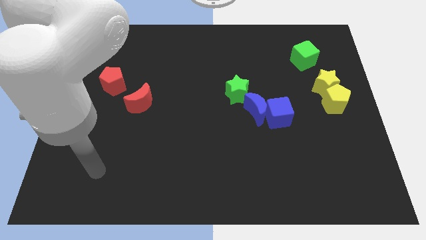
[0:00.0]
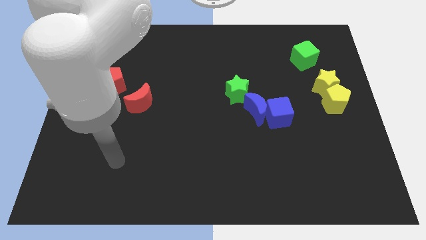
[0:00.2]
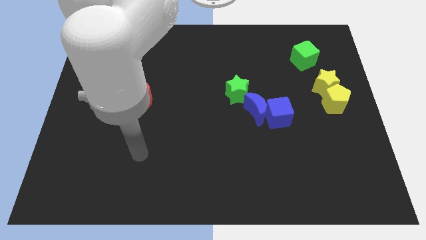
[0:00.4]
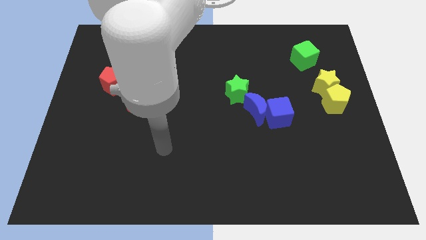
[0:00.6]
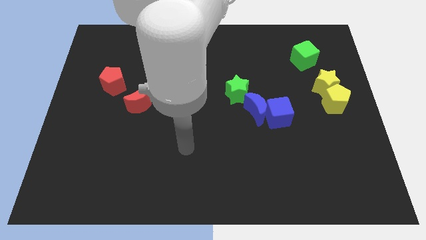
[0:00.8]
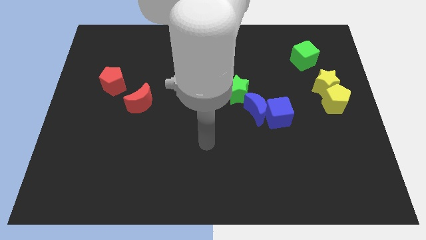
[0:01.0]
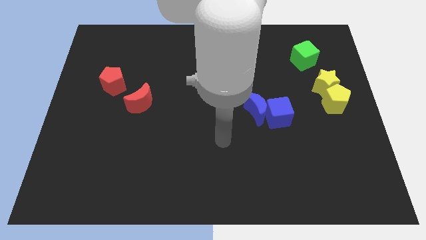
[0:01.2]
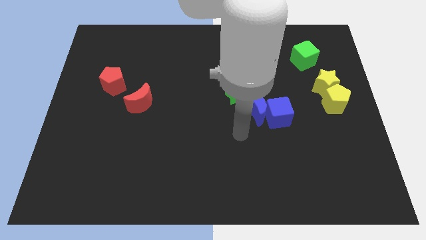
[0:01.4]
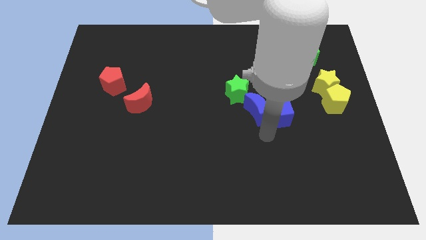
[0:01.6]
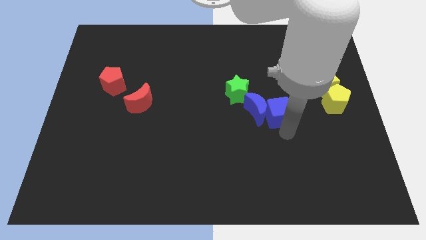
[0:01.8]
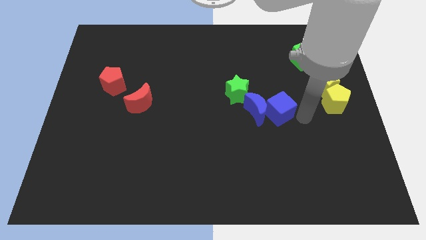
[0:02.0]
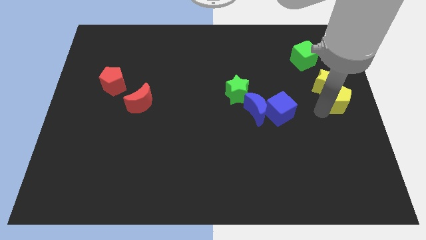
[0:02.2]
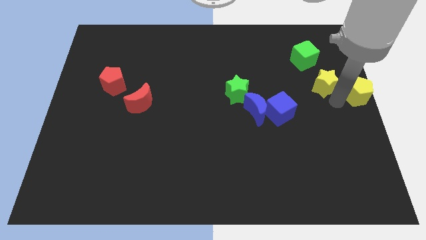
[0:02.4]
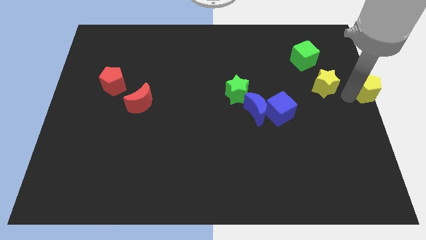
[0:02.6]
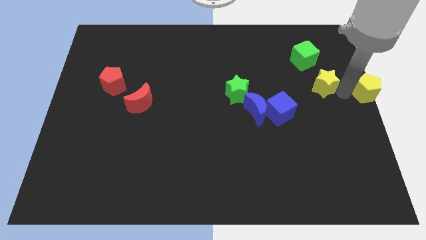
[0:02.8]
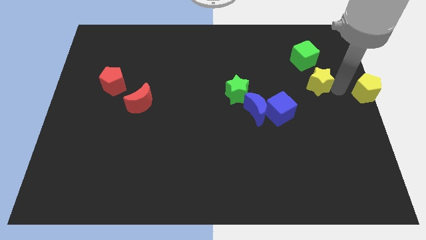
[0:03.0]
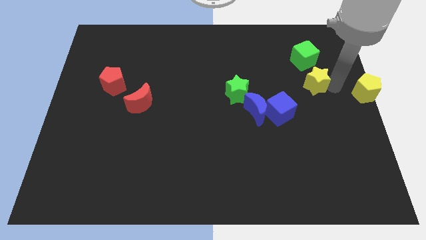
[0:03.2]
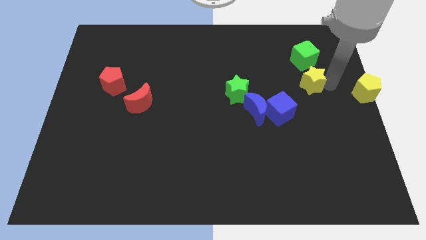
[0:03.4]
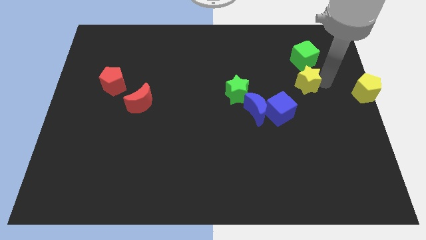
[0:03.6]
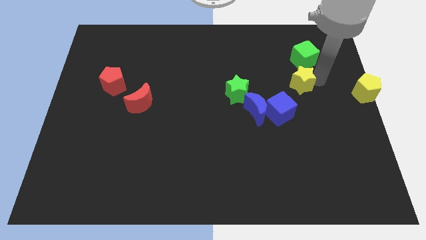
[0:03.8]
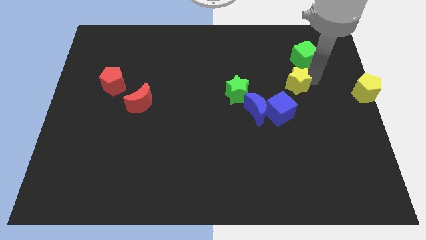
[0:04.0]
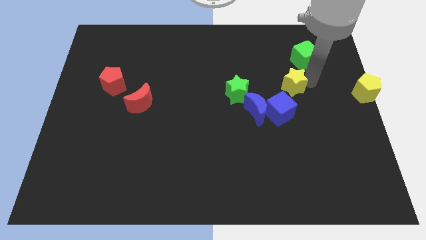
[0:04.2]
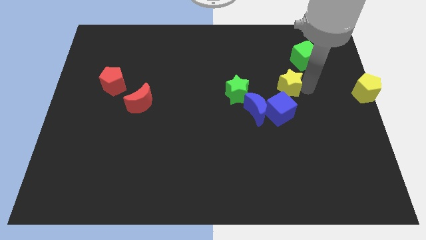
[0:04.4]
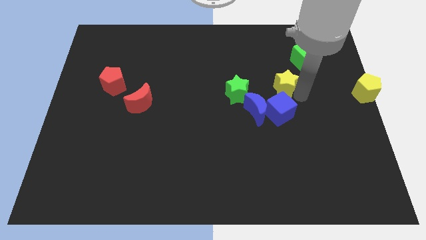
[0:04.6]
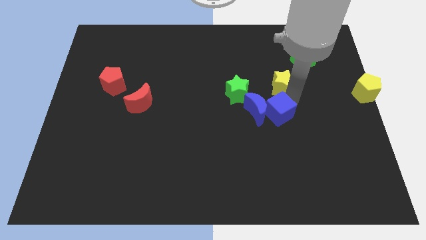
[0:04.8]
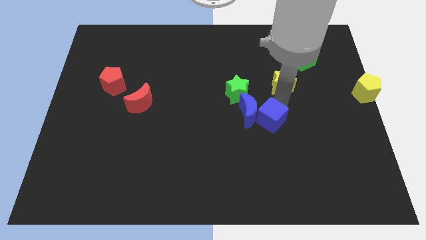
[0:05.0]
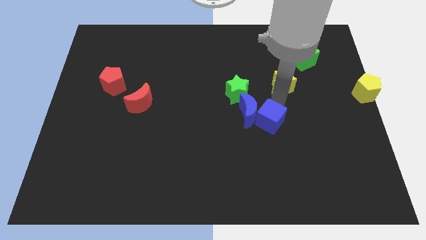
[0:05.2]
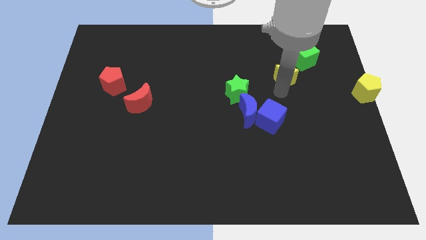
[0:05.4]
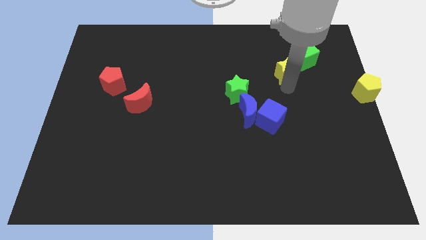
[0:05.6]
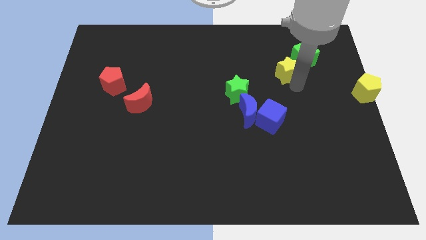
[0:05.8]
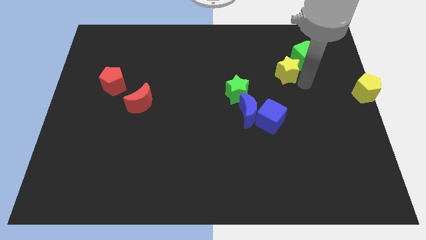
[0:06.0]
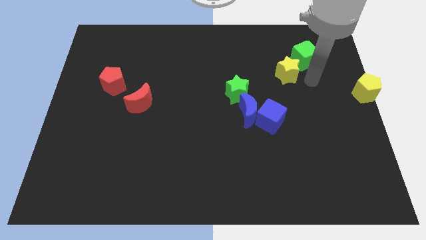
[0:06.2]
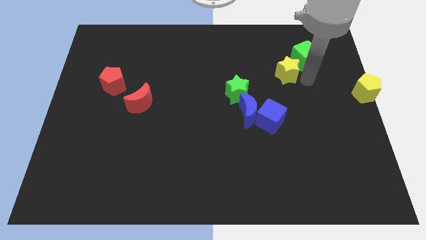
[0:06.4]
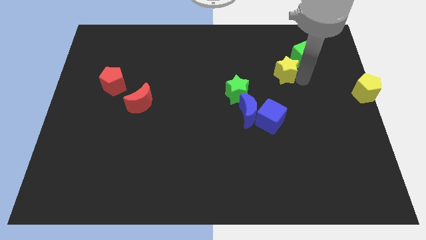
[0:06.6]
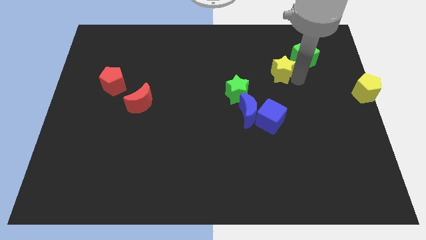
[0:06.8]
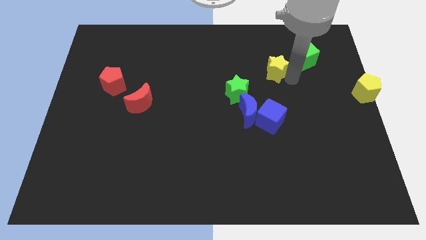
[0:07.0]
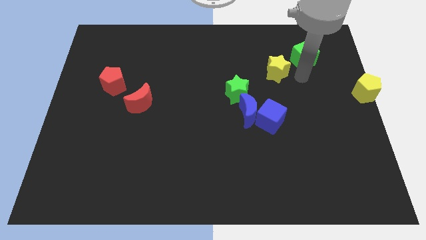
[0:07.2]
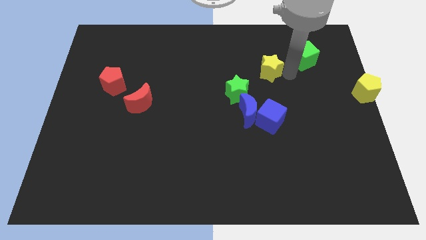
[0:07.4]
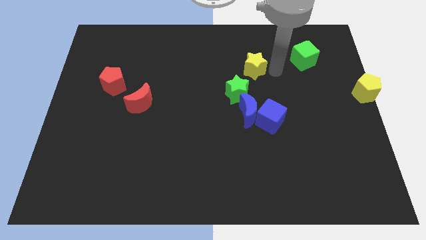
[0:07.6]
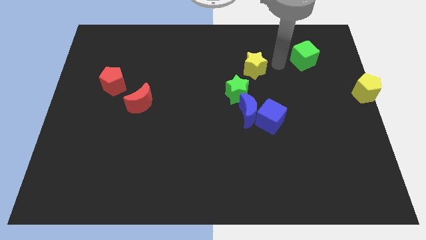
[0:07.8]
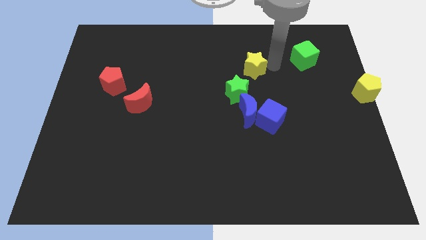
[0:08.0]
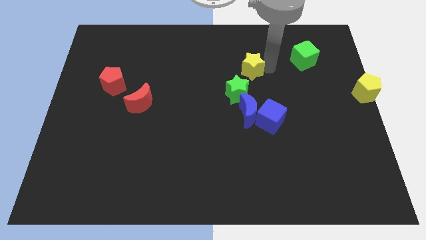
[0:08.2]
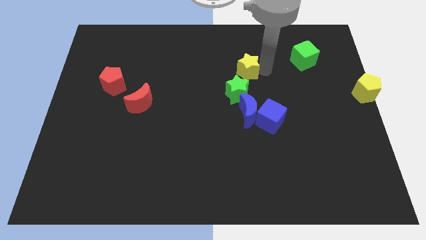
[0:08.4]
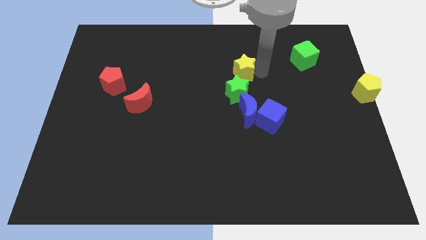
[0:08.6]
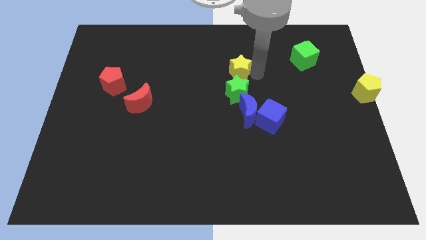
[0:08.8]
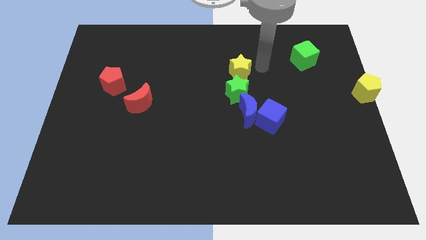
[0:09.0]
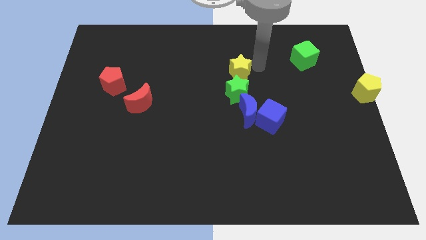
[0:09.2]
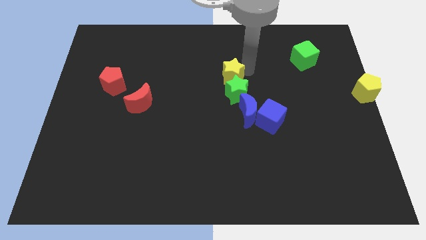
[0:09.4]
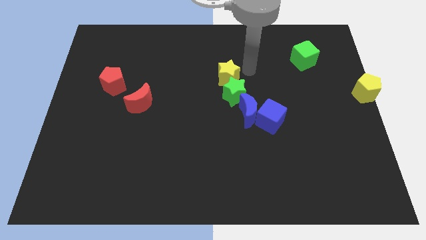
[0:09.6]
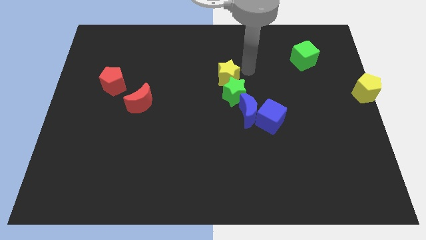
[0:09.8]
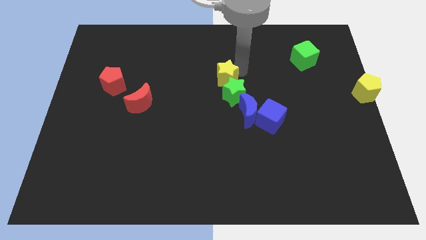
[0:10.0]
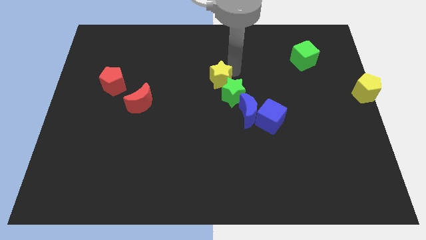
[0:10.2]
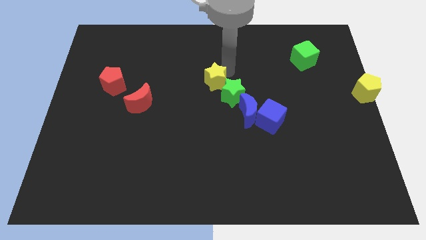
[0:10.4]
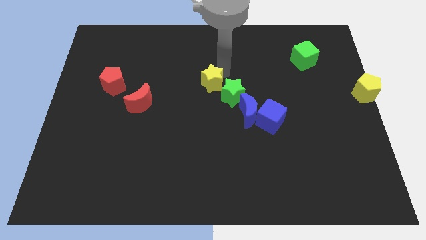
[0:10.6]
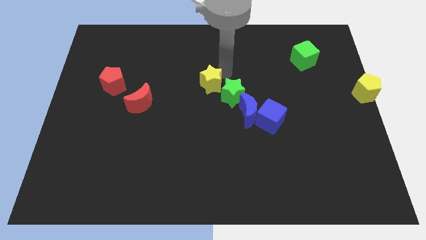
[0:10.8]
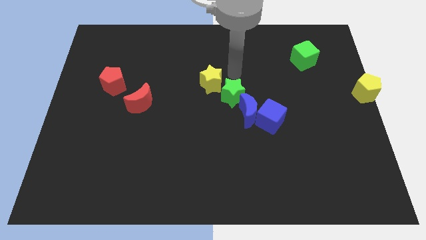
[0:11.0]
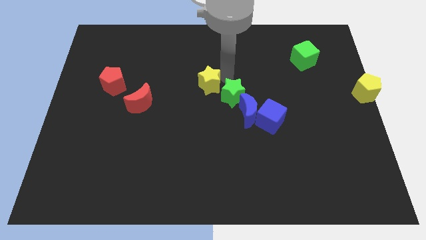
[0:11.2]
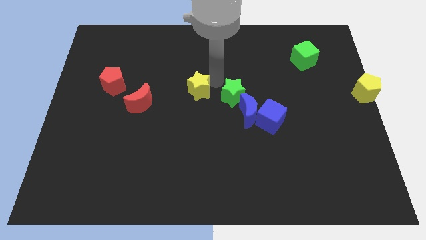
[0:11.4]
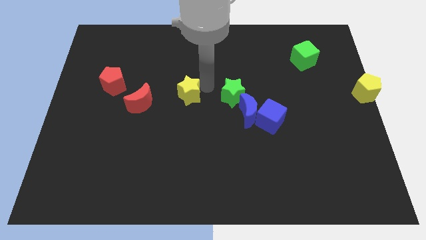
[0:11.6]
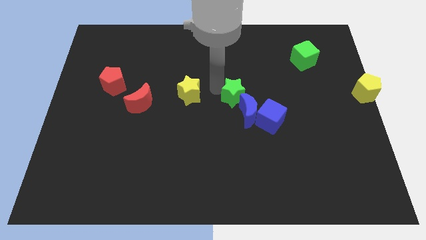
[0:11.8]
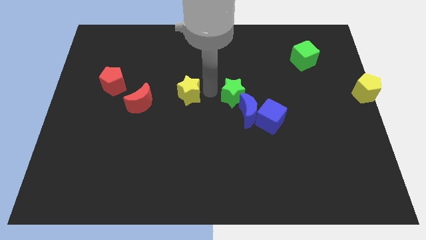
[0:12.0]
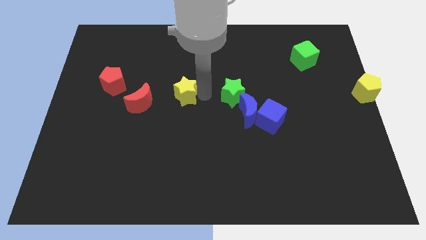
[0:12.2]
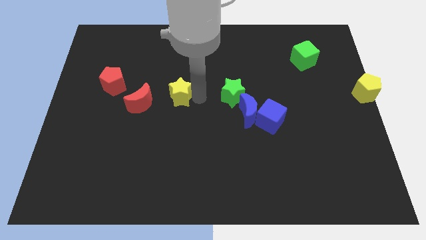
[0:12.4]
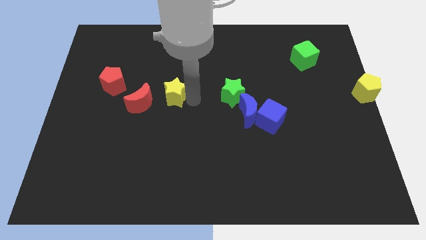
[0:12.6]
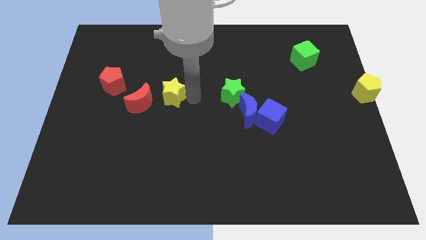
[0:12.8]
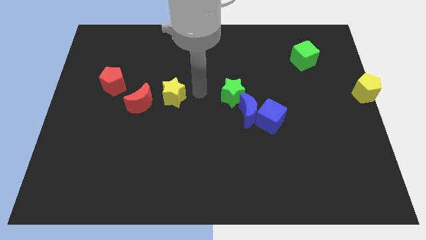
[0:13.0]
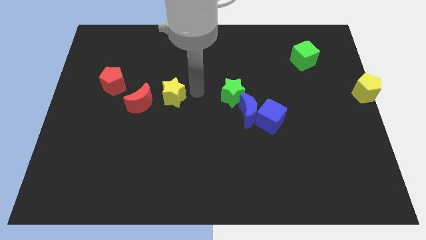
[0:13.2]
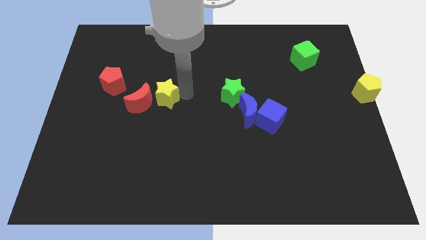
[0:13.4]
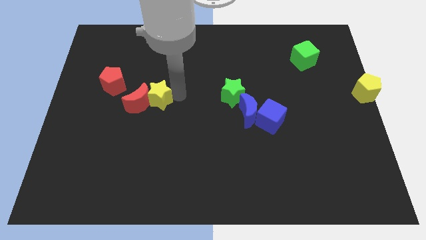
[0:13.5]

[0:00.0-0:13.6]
put the yellow star towards the red moon

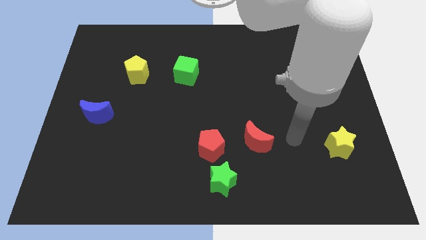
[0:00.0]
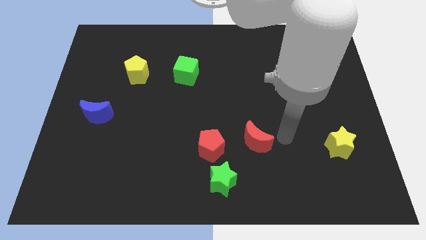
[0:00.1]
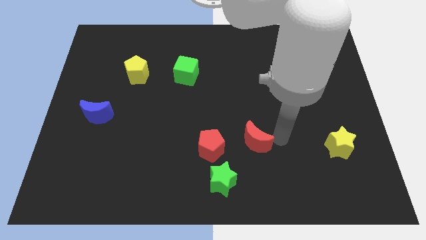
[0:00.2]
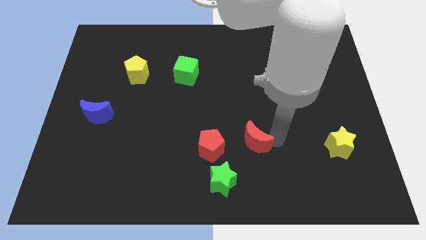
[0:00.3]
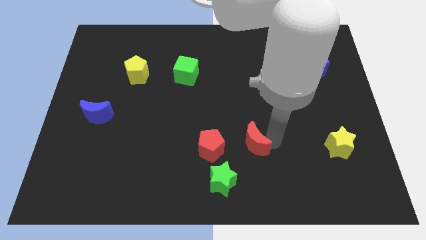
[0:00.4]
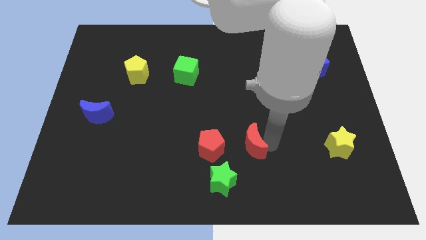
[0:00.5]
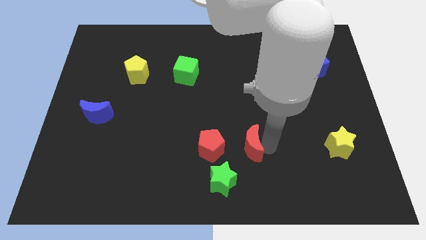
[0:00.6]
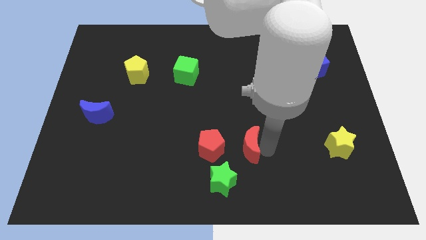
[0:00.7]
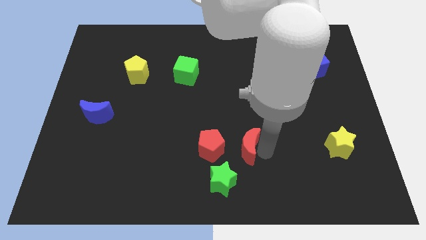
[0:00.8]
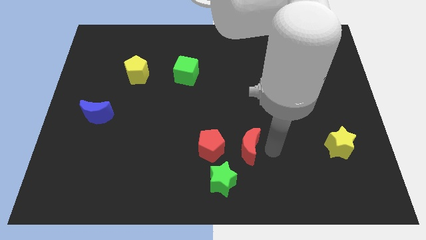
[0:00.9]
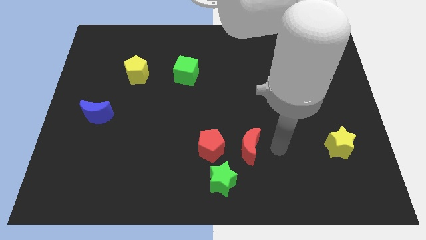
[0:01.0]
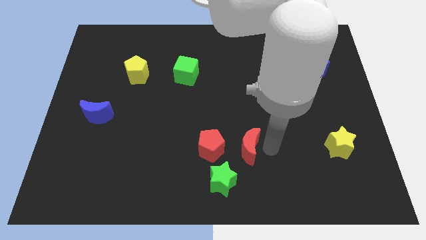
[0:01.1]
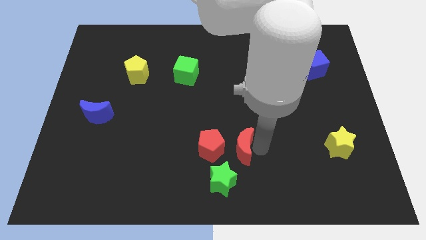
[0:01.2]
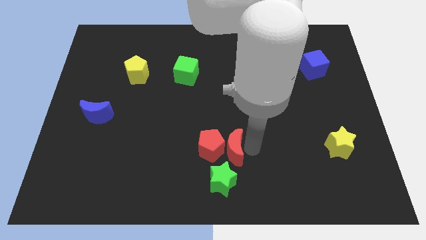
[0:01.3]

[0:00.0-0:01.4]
put the red moon close to the red pentagon
